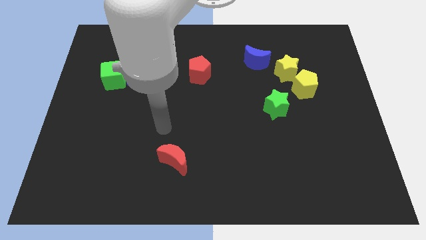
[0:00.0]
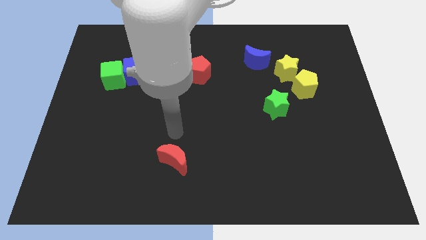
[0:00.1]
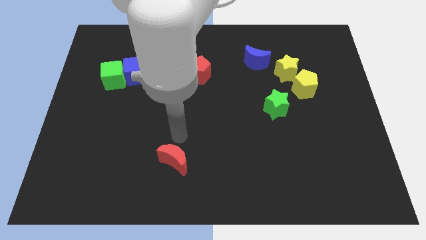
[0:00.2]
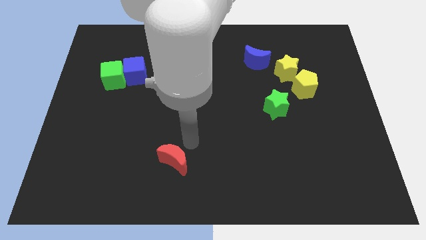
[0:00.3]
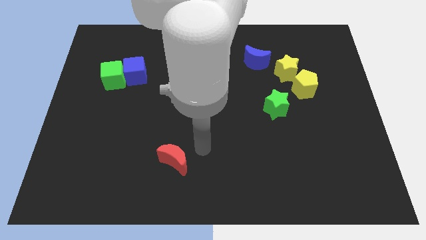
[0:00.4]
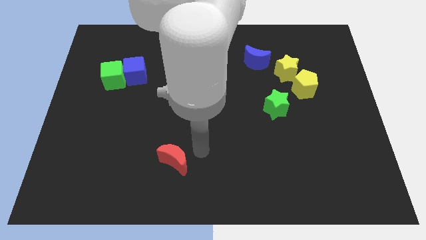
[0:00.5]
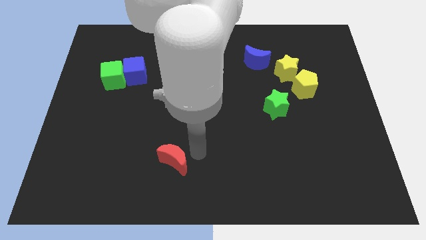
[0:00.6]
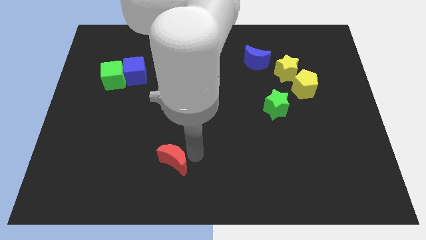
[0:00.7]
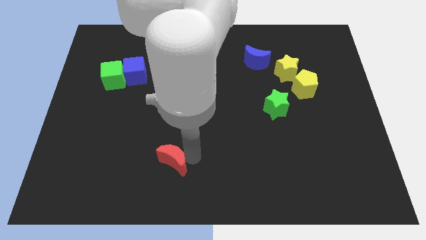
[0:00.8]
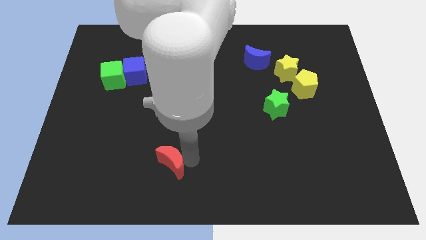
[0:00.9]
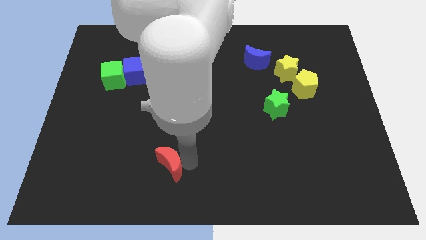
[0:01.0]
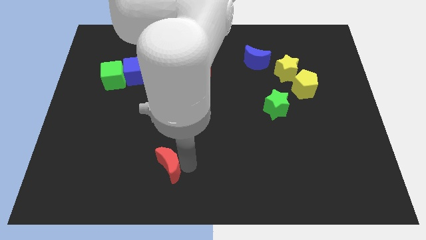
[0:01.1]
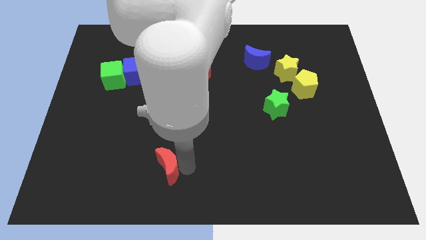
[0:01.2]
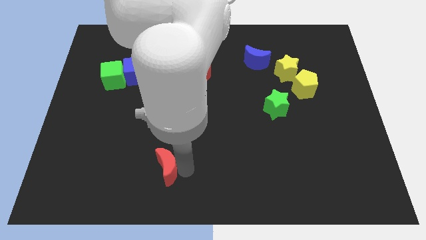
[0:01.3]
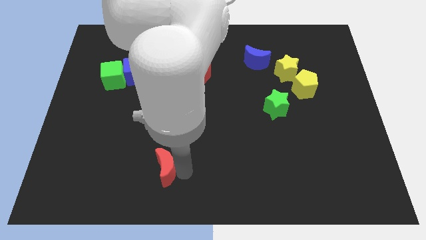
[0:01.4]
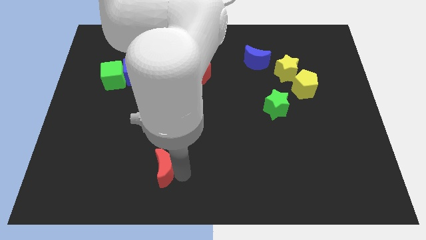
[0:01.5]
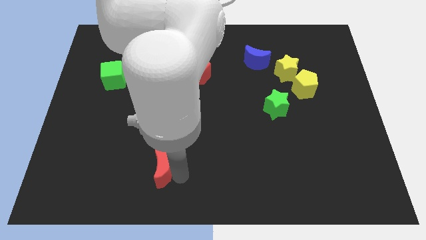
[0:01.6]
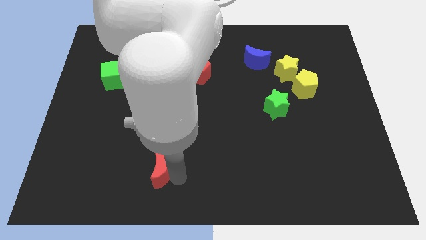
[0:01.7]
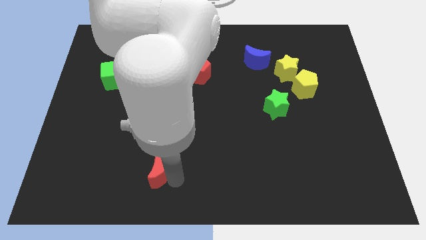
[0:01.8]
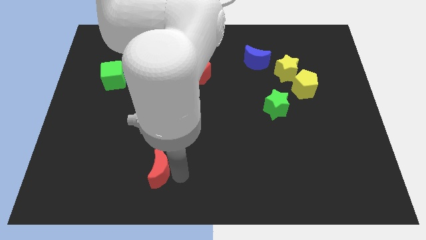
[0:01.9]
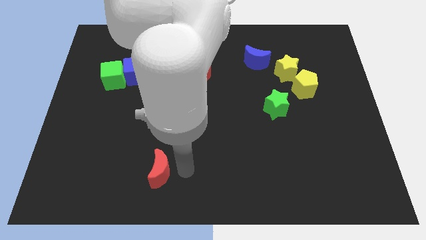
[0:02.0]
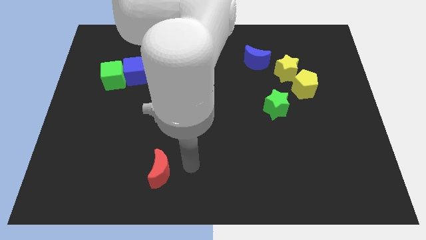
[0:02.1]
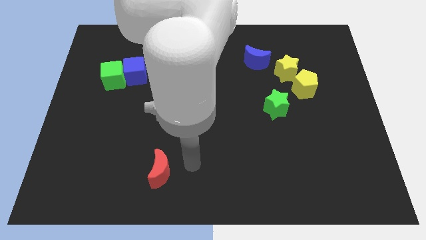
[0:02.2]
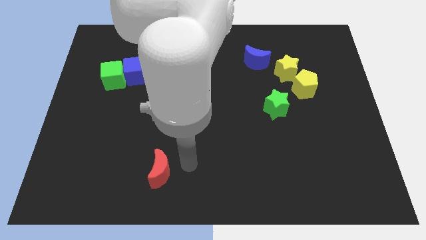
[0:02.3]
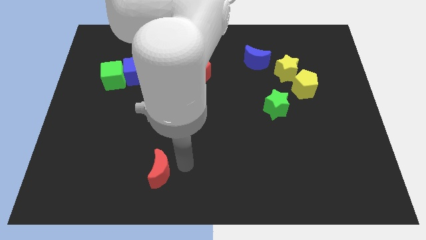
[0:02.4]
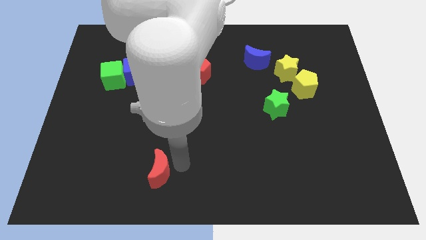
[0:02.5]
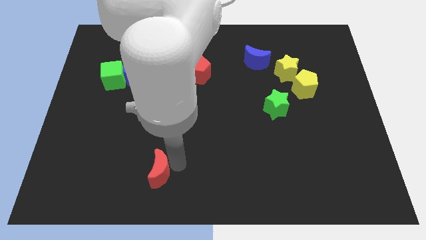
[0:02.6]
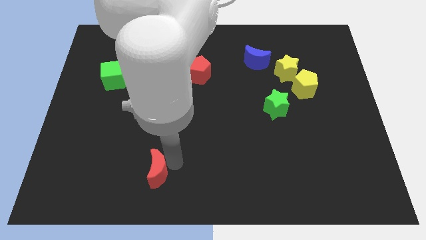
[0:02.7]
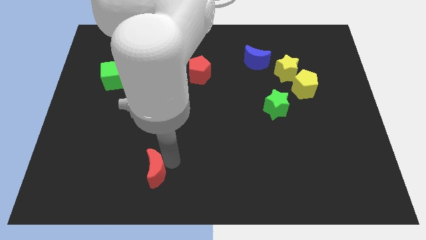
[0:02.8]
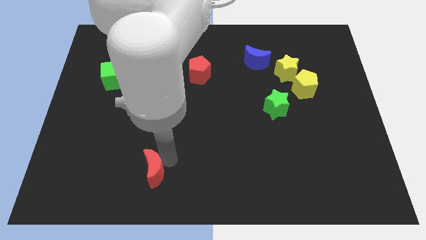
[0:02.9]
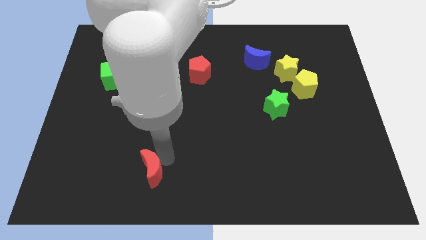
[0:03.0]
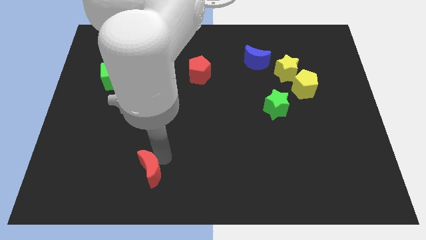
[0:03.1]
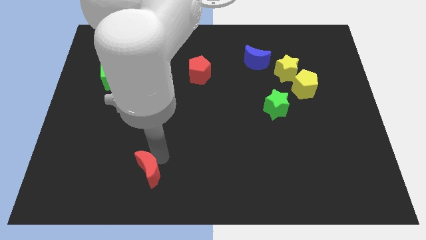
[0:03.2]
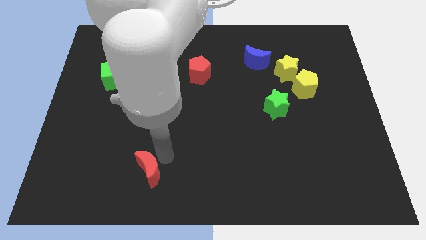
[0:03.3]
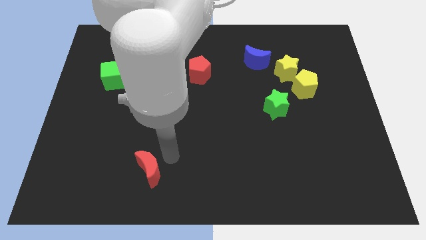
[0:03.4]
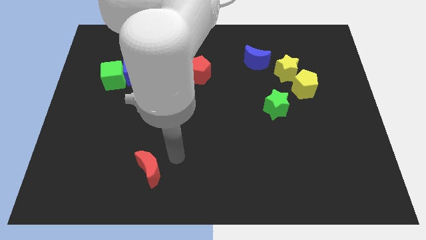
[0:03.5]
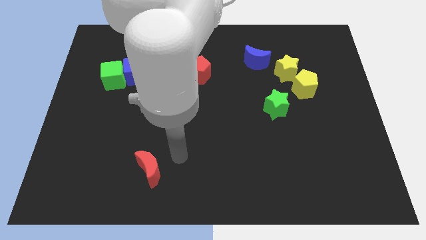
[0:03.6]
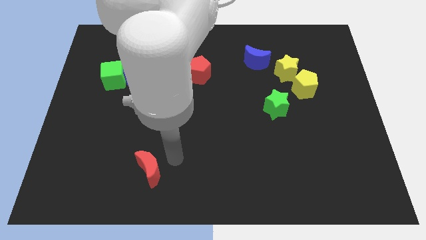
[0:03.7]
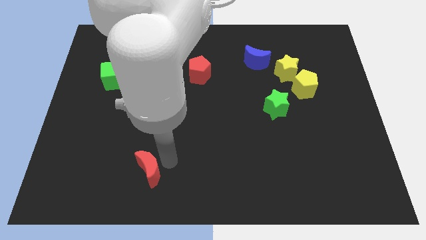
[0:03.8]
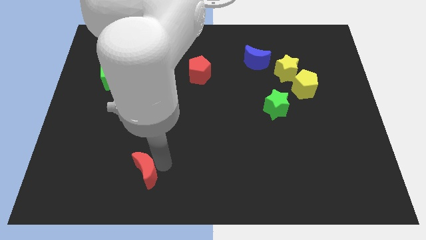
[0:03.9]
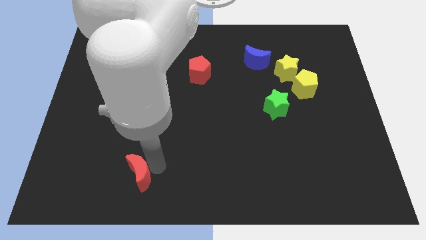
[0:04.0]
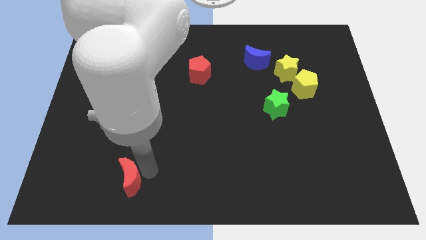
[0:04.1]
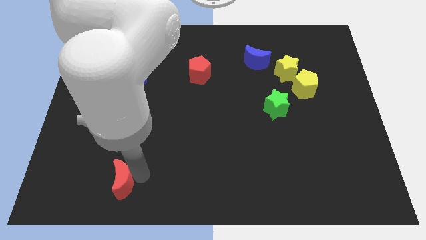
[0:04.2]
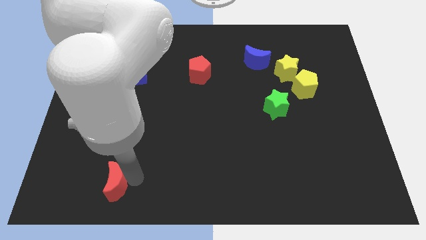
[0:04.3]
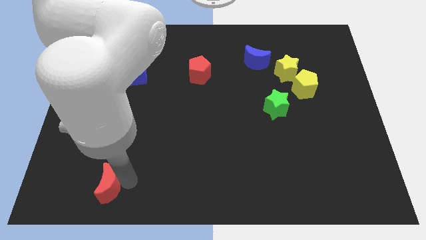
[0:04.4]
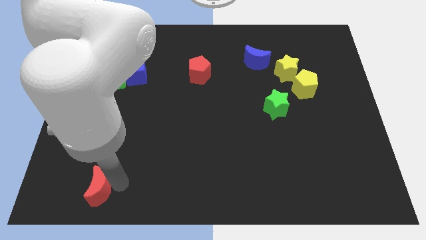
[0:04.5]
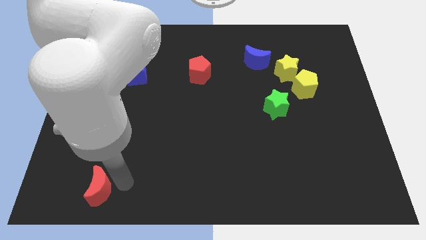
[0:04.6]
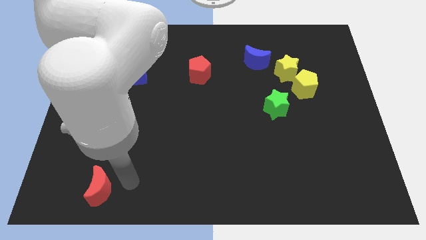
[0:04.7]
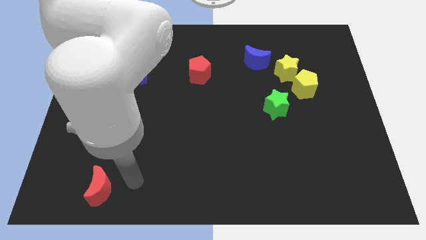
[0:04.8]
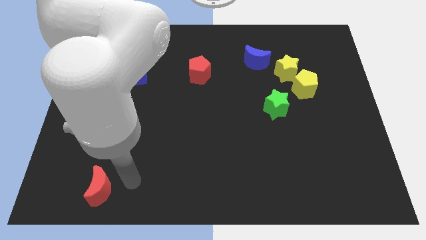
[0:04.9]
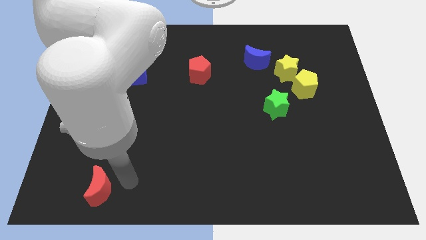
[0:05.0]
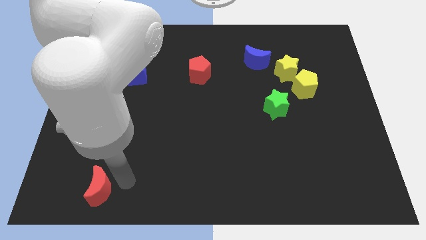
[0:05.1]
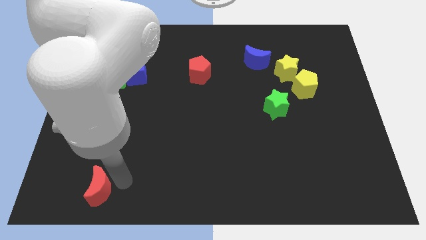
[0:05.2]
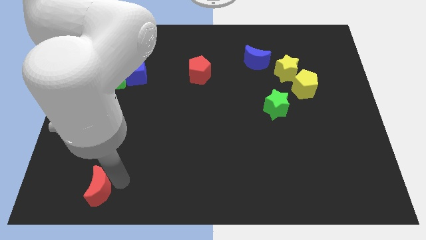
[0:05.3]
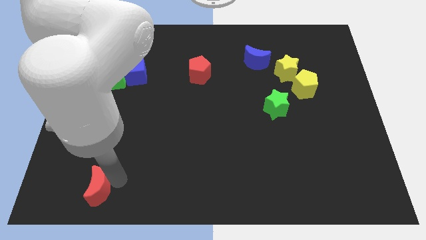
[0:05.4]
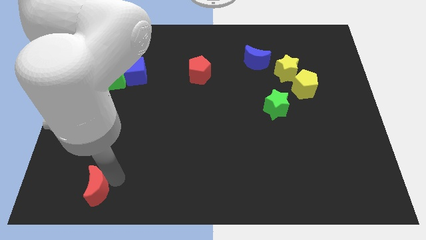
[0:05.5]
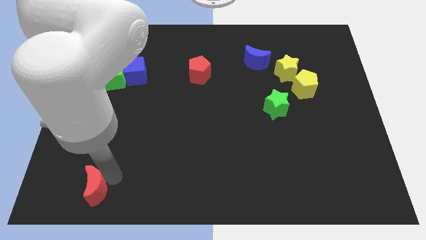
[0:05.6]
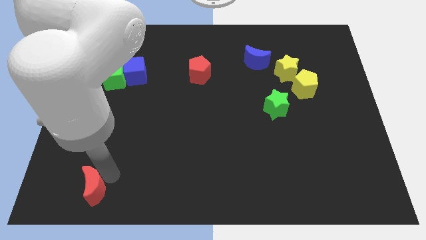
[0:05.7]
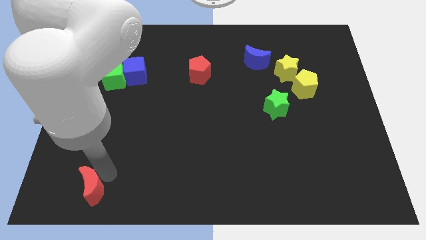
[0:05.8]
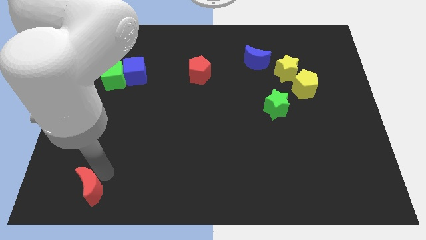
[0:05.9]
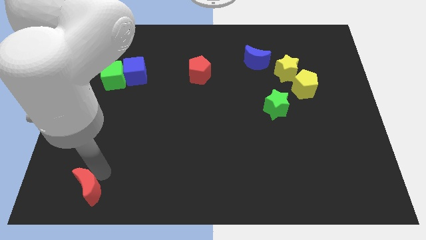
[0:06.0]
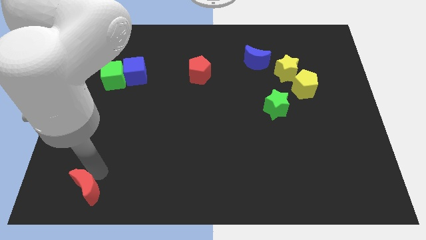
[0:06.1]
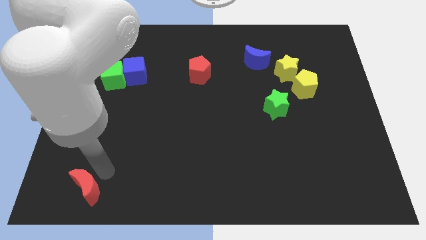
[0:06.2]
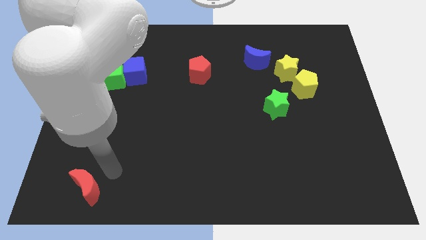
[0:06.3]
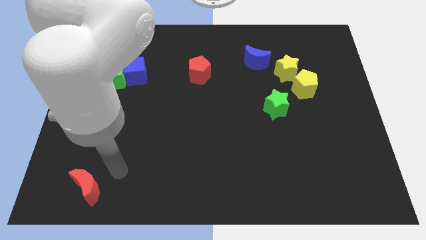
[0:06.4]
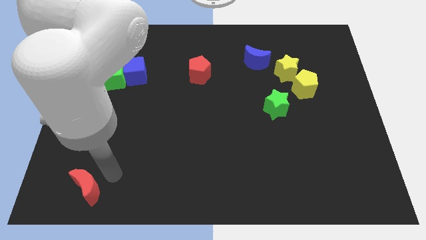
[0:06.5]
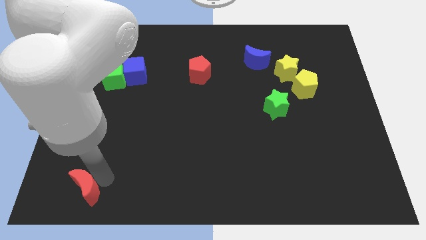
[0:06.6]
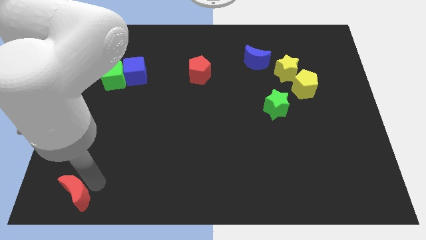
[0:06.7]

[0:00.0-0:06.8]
slide the red moon to the bottom left corner
